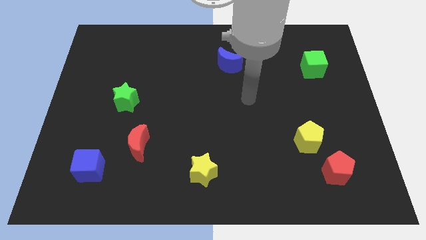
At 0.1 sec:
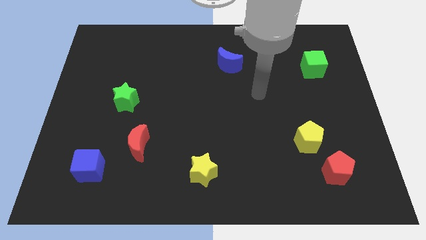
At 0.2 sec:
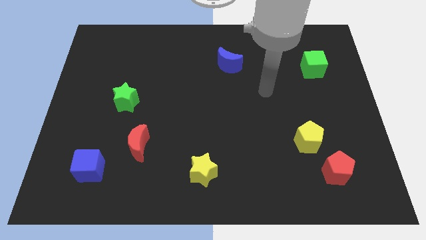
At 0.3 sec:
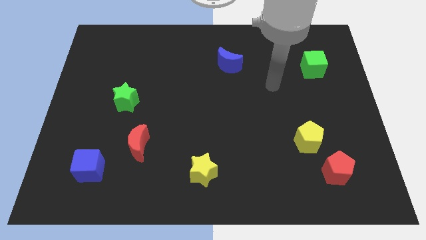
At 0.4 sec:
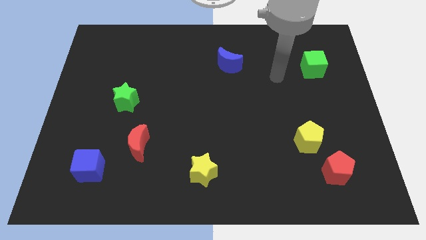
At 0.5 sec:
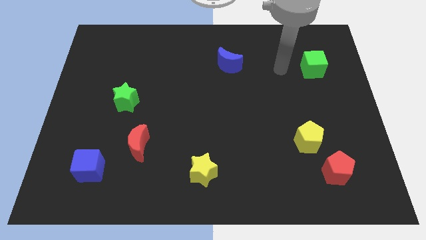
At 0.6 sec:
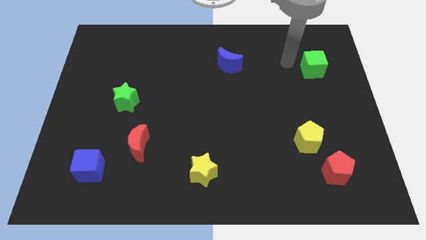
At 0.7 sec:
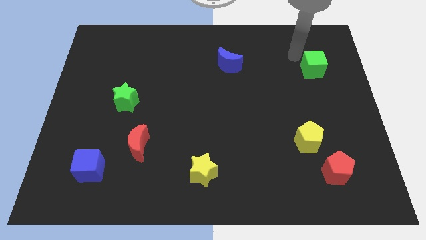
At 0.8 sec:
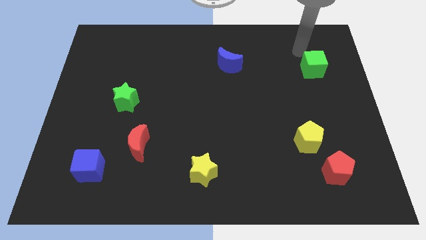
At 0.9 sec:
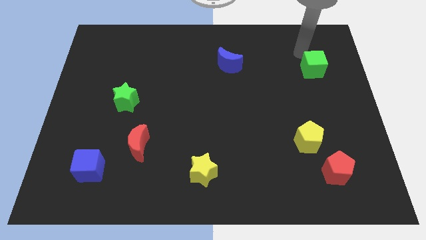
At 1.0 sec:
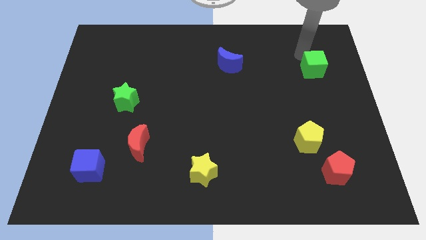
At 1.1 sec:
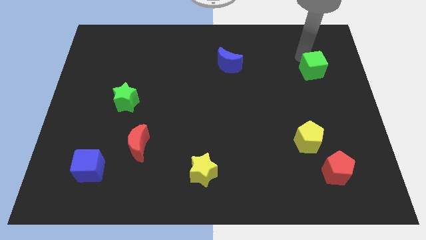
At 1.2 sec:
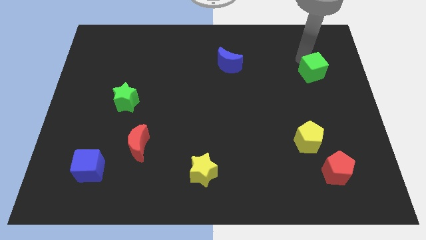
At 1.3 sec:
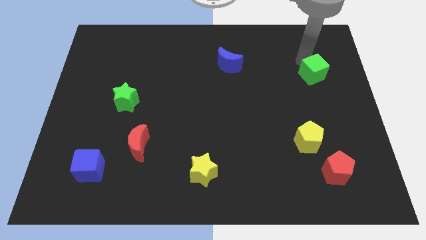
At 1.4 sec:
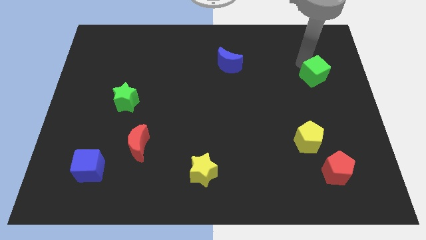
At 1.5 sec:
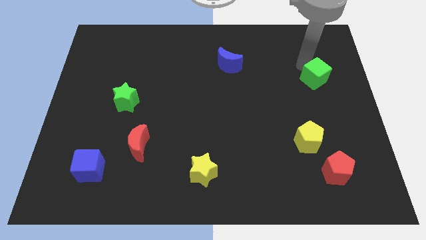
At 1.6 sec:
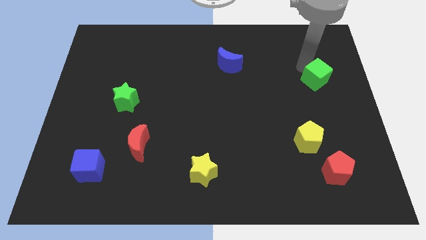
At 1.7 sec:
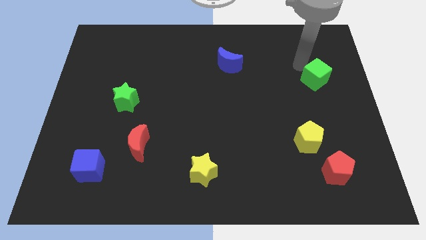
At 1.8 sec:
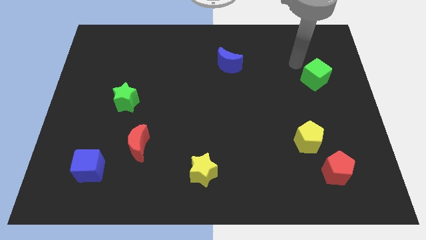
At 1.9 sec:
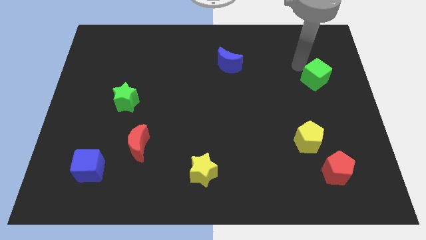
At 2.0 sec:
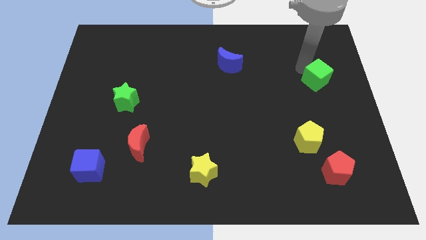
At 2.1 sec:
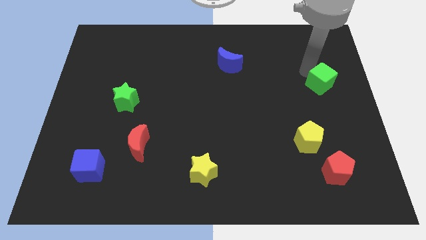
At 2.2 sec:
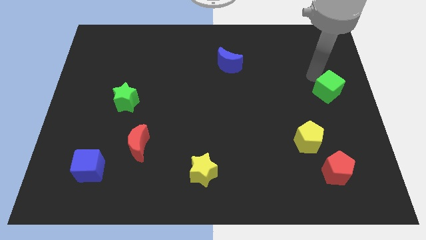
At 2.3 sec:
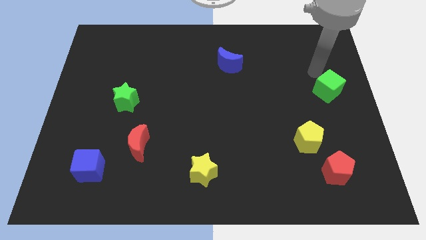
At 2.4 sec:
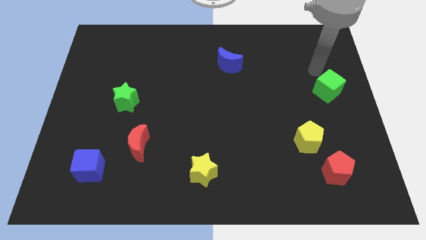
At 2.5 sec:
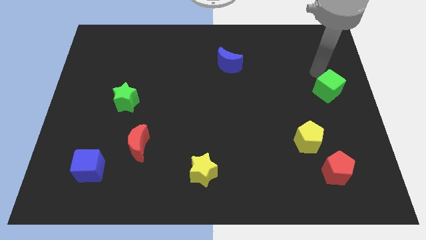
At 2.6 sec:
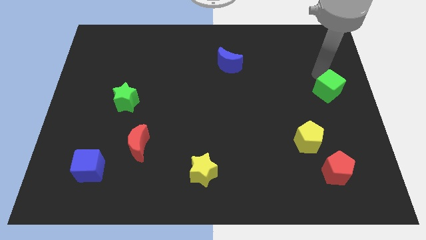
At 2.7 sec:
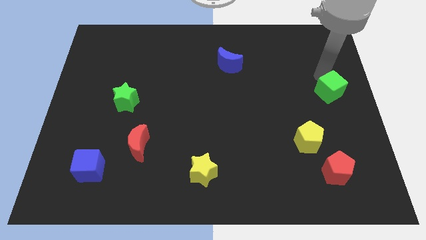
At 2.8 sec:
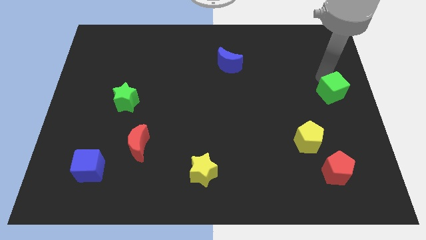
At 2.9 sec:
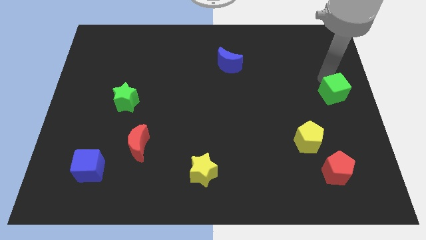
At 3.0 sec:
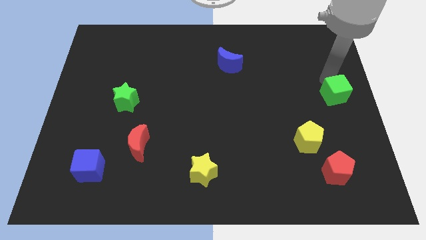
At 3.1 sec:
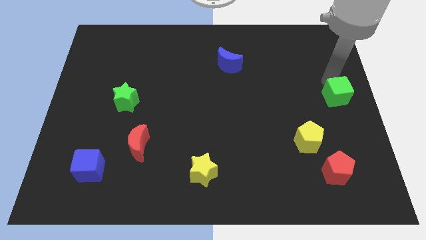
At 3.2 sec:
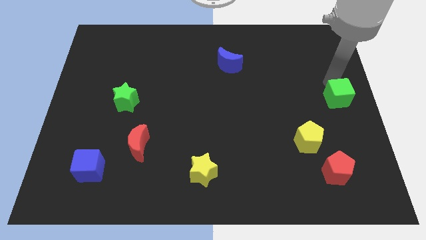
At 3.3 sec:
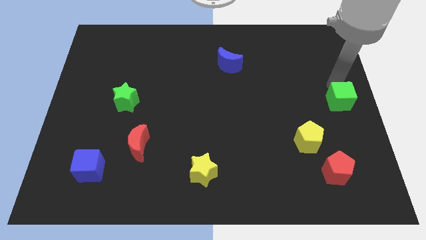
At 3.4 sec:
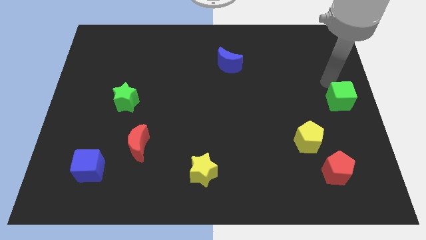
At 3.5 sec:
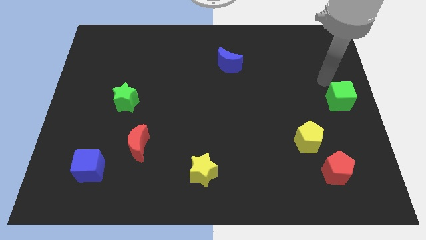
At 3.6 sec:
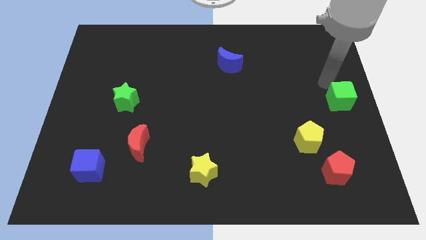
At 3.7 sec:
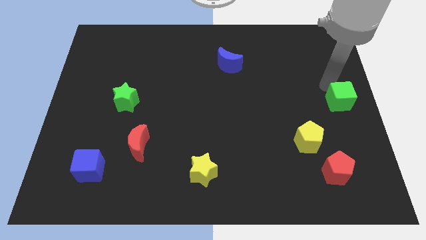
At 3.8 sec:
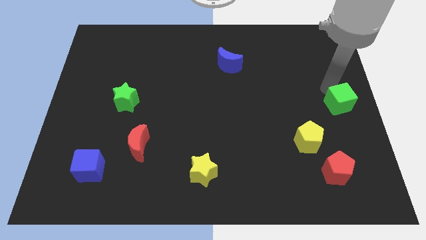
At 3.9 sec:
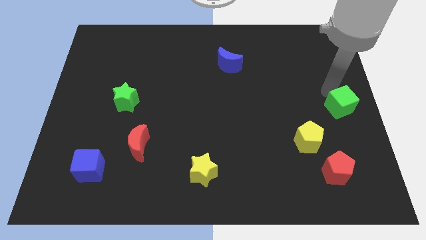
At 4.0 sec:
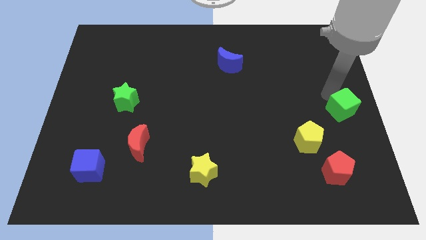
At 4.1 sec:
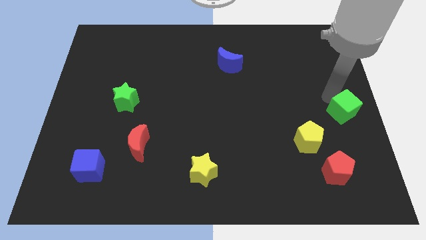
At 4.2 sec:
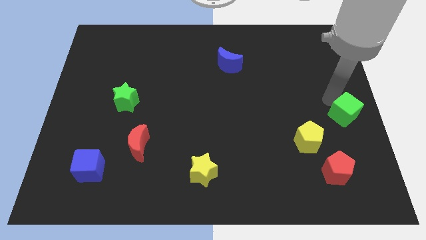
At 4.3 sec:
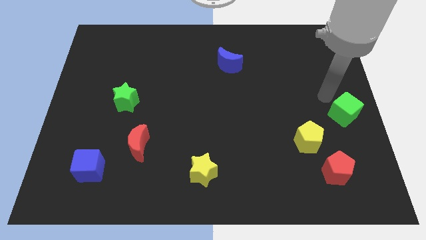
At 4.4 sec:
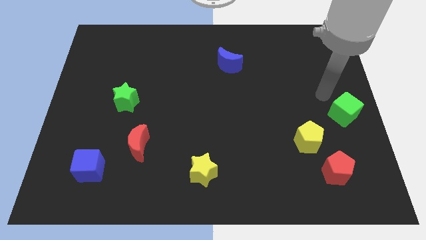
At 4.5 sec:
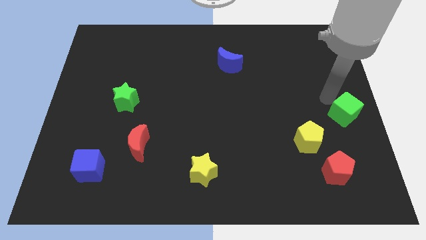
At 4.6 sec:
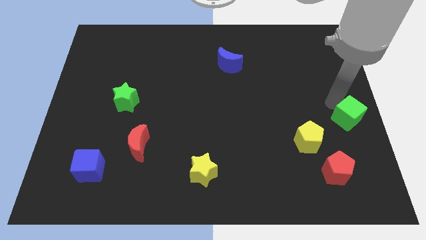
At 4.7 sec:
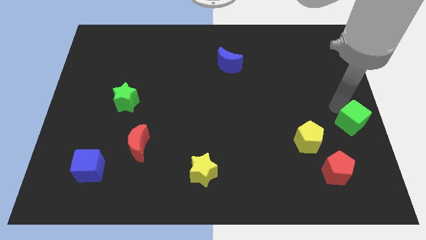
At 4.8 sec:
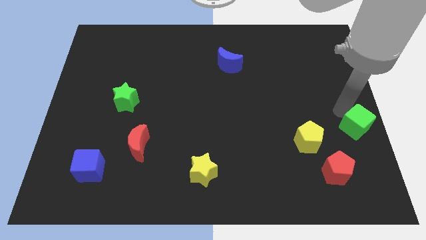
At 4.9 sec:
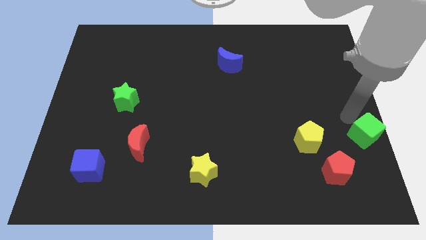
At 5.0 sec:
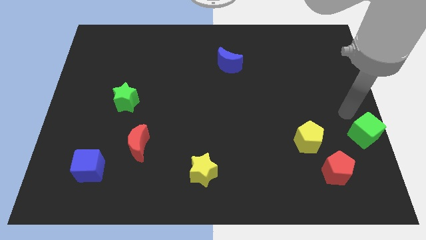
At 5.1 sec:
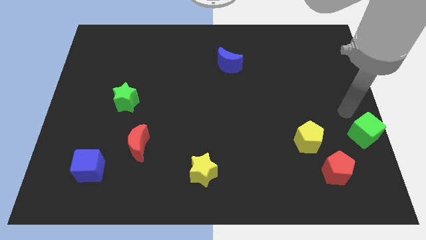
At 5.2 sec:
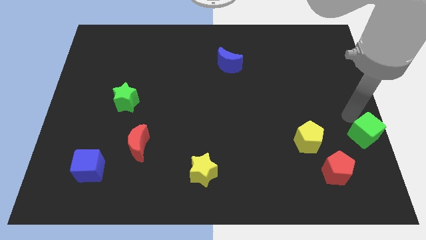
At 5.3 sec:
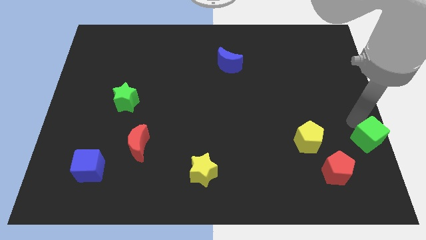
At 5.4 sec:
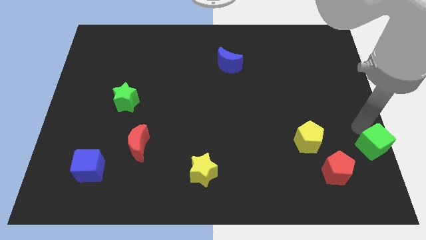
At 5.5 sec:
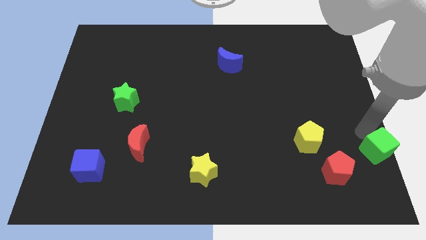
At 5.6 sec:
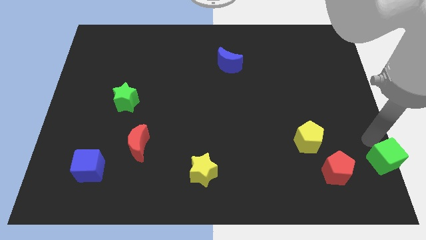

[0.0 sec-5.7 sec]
move the green cube to the bottom right corner

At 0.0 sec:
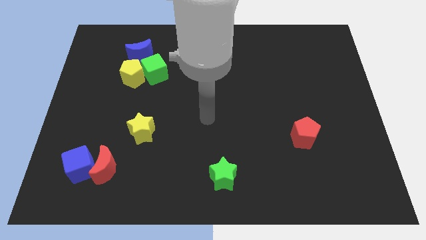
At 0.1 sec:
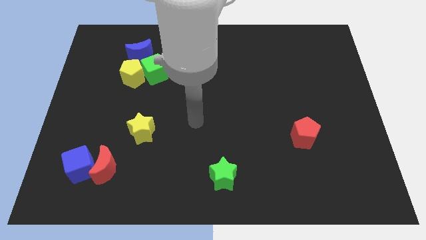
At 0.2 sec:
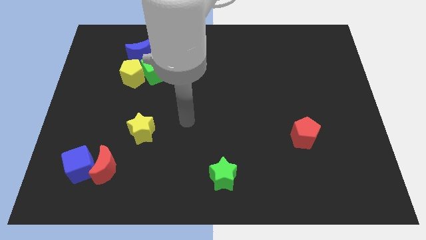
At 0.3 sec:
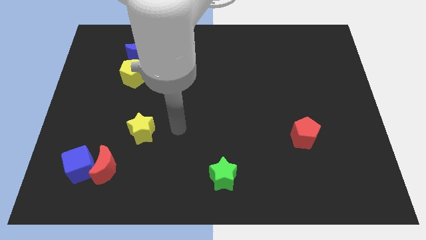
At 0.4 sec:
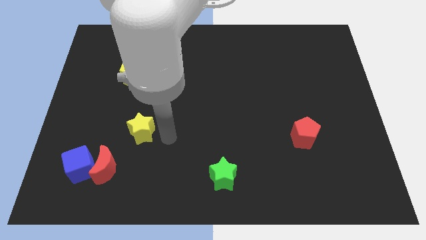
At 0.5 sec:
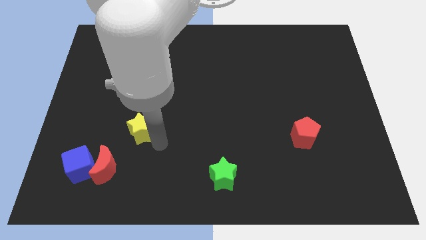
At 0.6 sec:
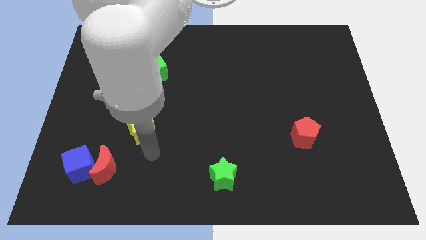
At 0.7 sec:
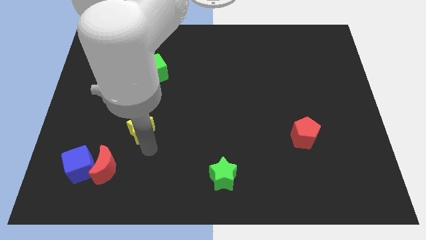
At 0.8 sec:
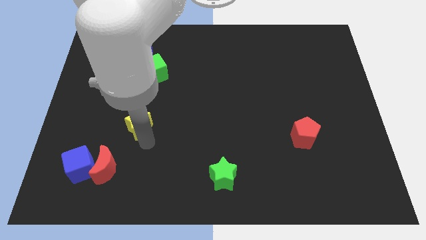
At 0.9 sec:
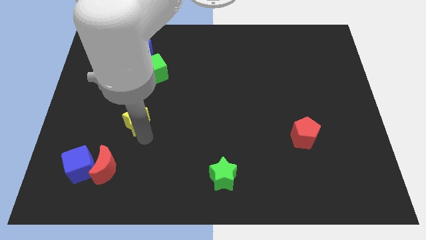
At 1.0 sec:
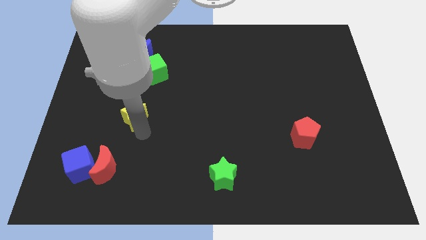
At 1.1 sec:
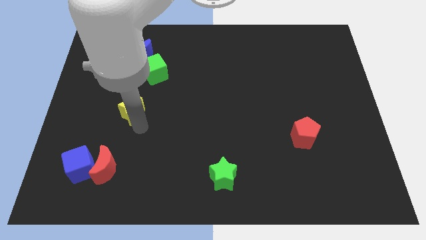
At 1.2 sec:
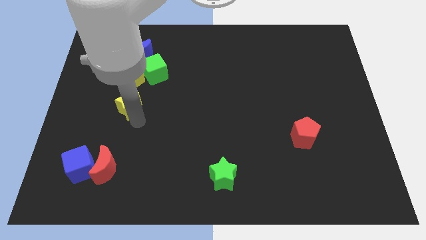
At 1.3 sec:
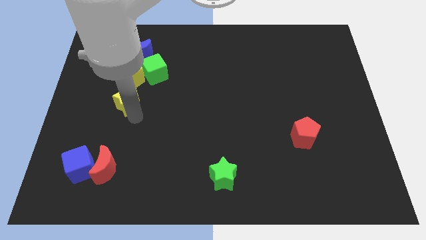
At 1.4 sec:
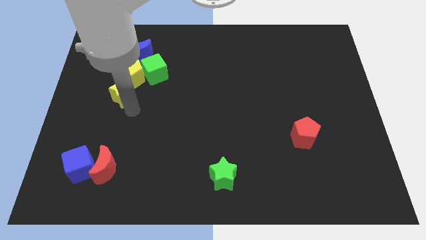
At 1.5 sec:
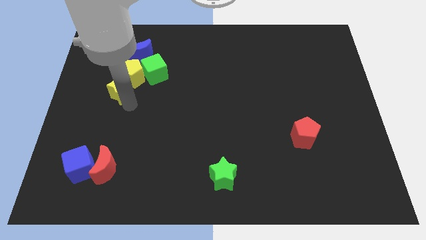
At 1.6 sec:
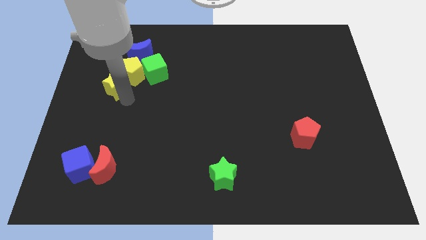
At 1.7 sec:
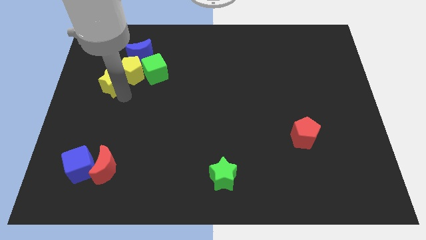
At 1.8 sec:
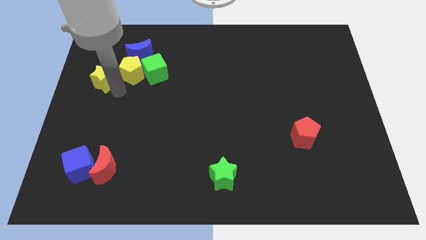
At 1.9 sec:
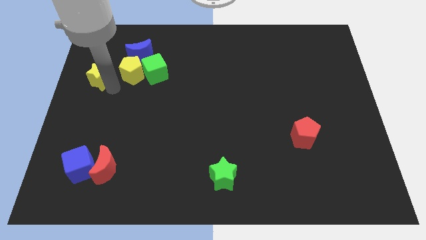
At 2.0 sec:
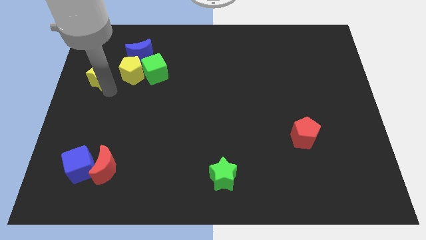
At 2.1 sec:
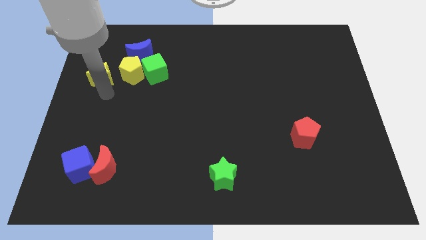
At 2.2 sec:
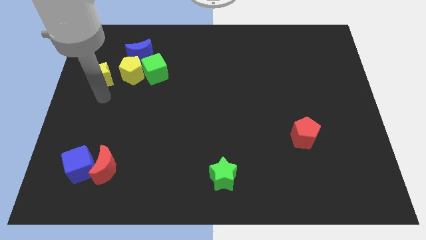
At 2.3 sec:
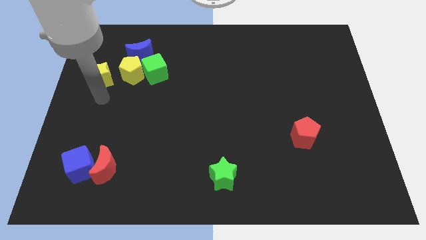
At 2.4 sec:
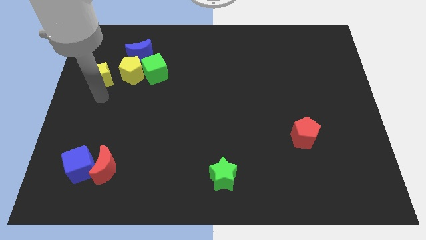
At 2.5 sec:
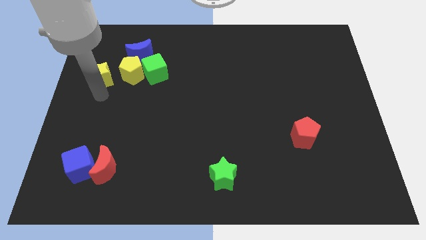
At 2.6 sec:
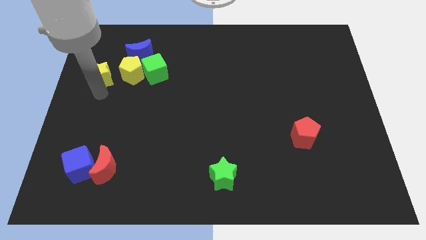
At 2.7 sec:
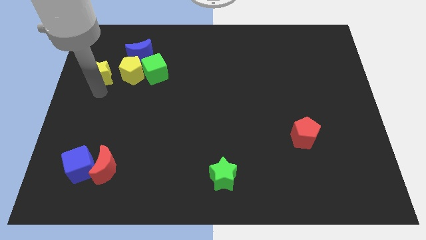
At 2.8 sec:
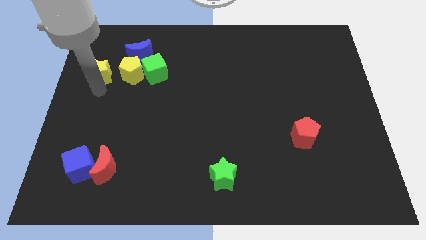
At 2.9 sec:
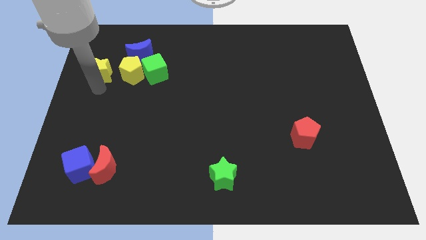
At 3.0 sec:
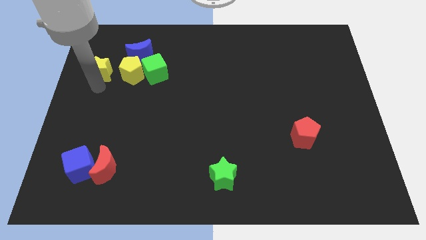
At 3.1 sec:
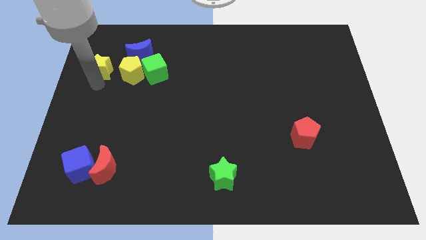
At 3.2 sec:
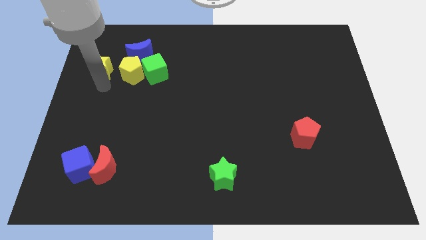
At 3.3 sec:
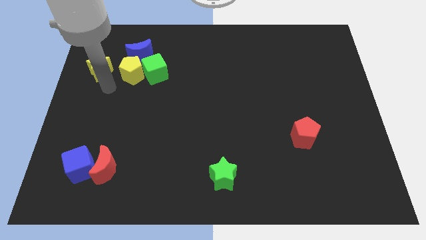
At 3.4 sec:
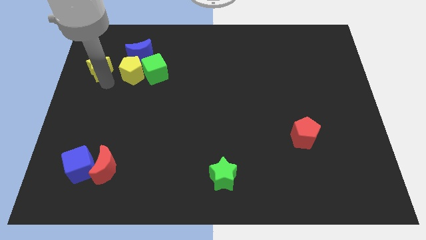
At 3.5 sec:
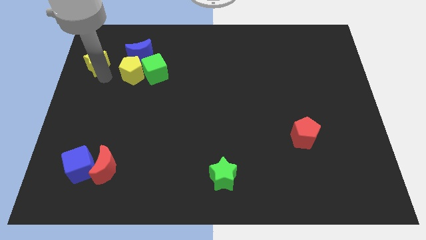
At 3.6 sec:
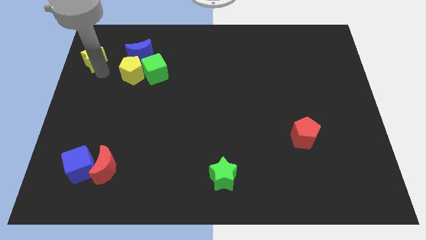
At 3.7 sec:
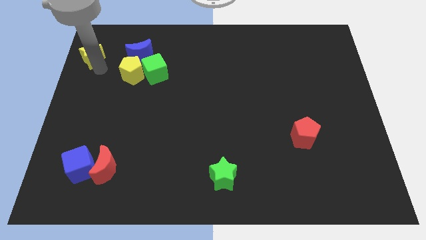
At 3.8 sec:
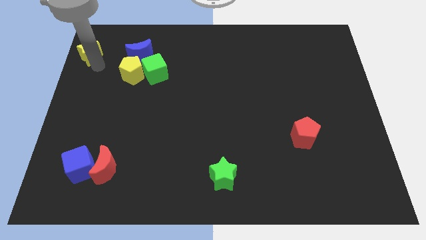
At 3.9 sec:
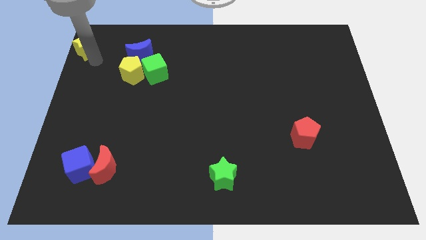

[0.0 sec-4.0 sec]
put the yellow star to the top left of the board
